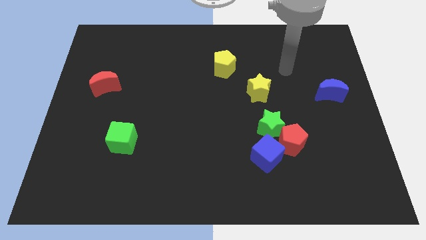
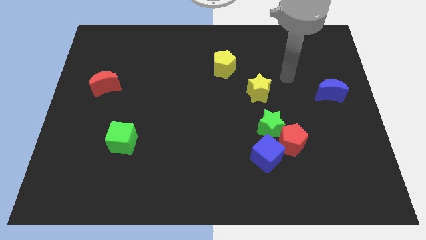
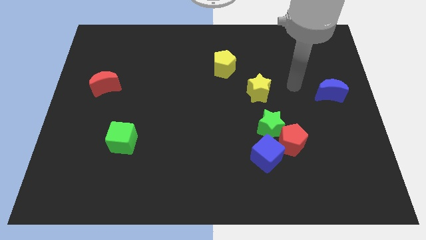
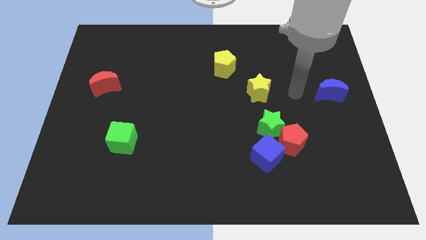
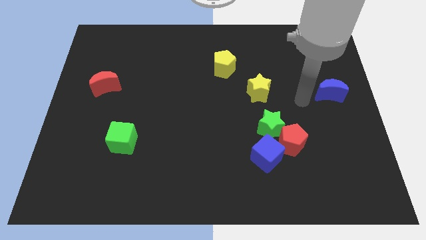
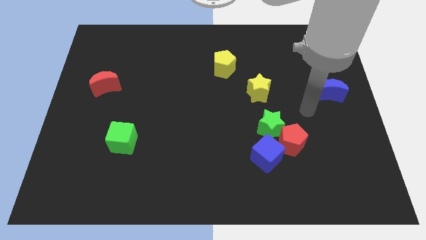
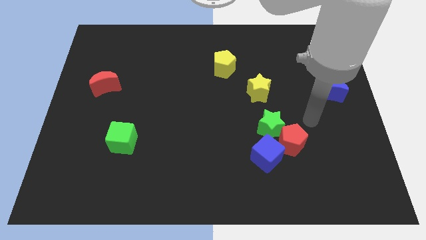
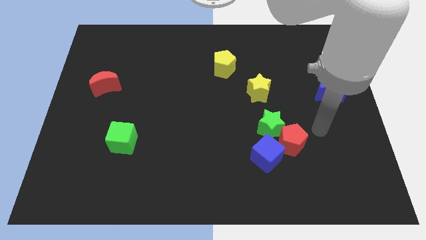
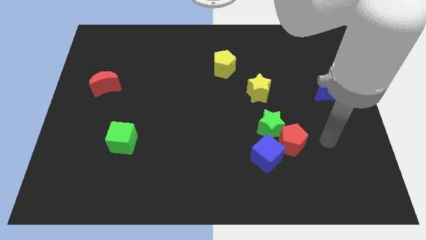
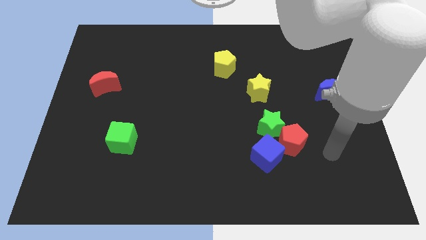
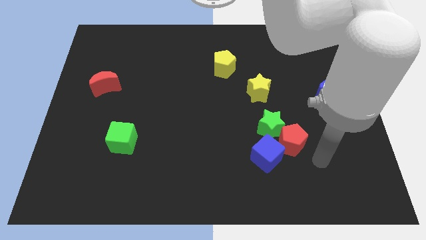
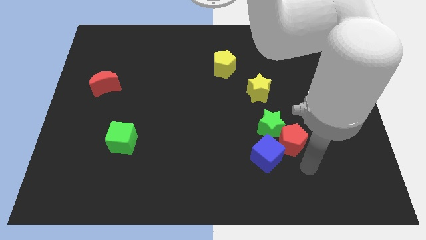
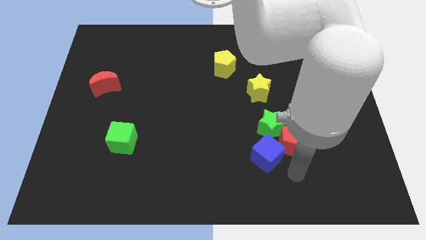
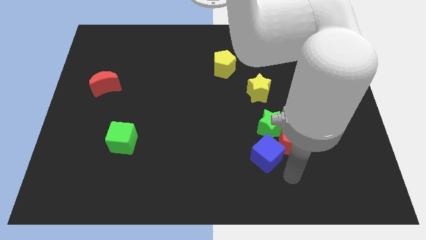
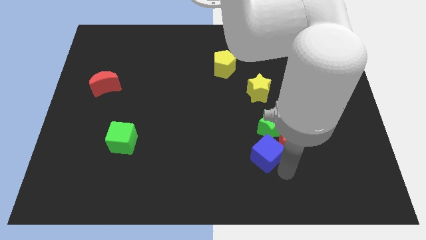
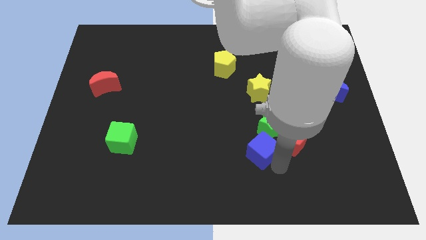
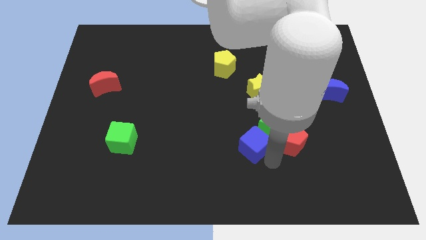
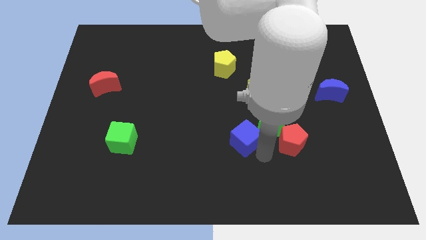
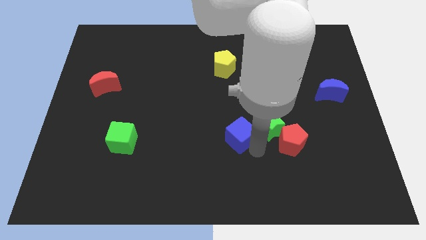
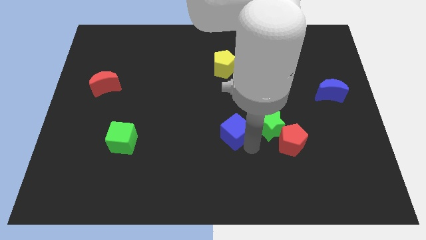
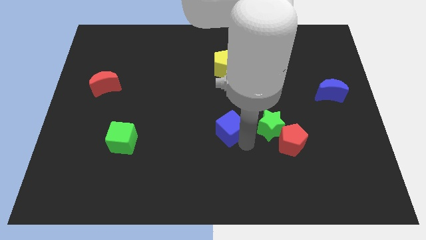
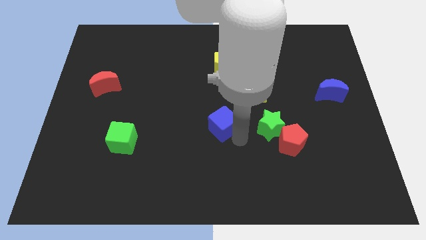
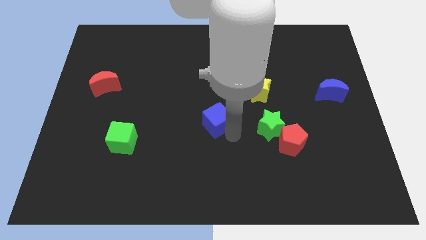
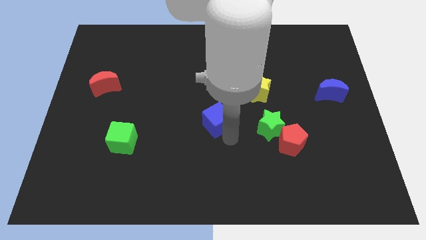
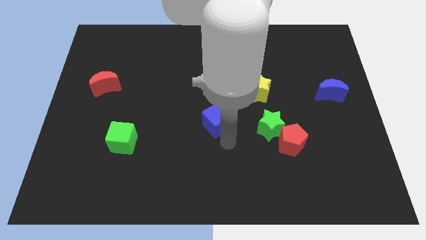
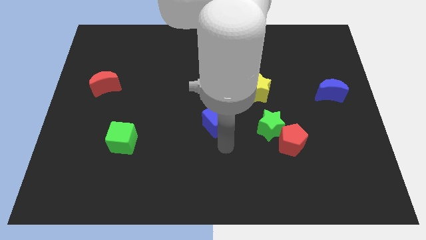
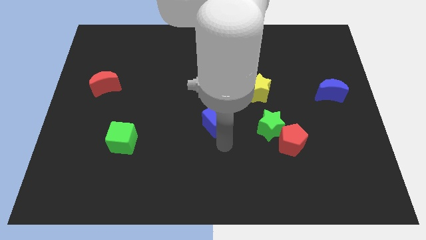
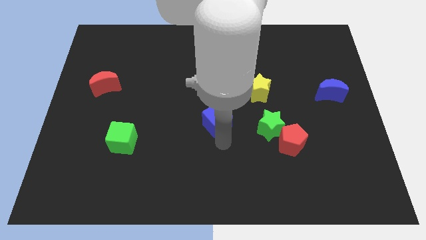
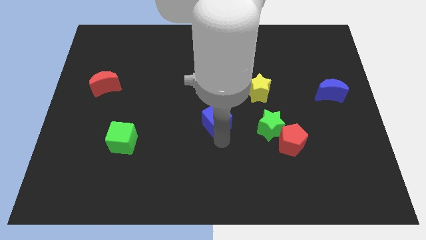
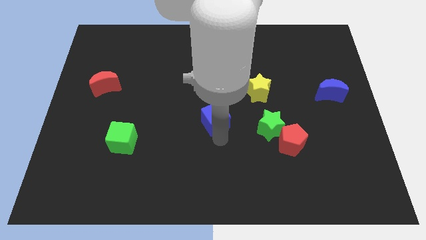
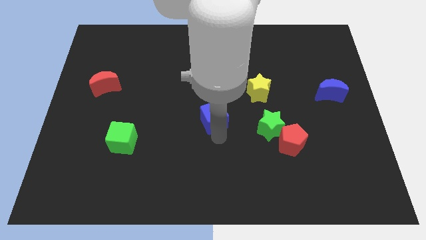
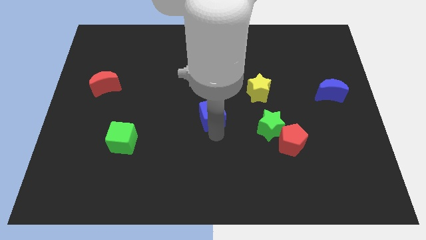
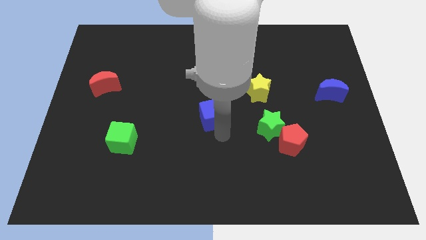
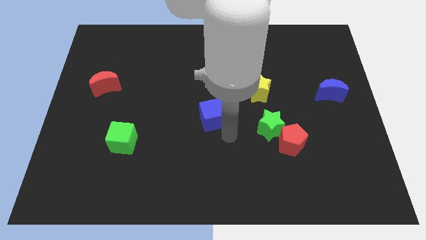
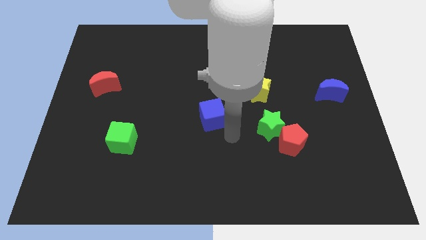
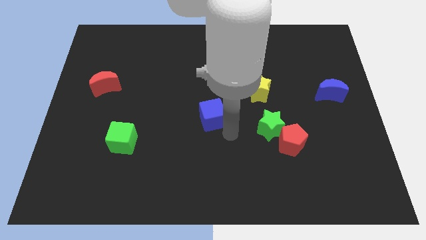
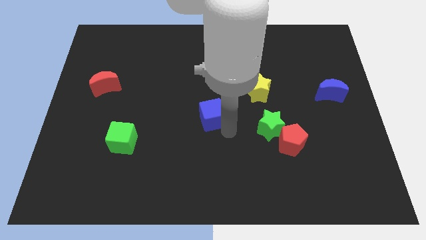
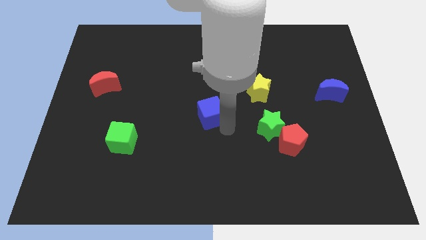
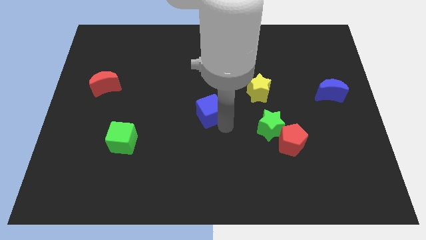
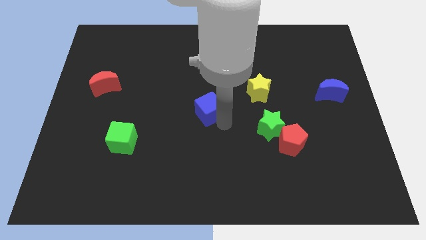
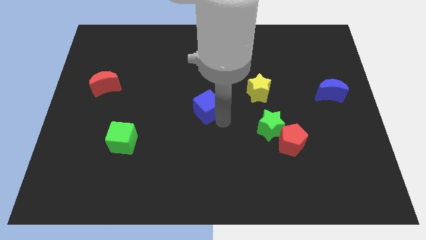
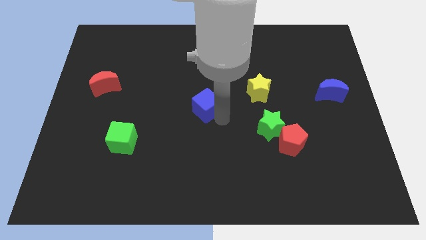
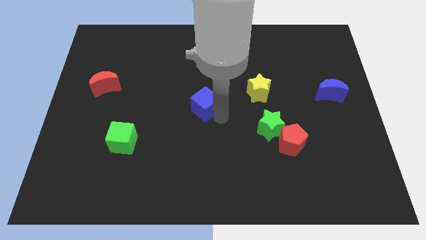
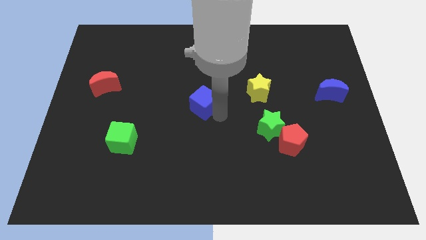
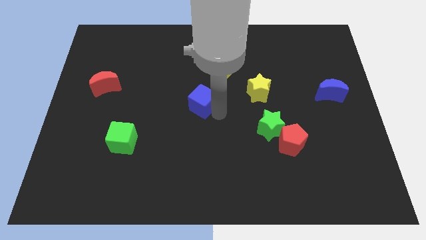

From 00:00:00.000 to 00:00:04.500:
push the blue cube up and to the left diagonally

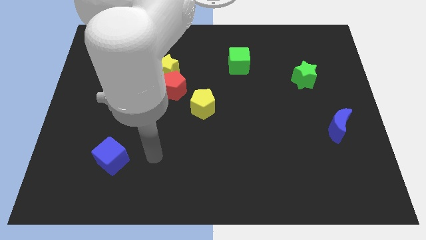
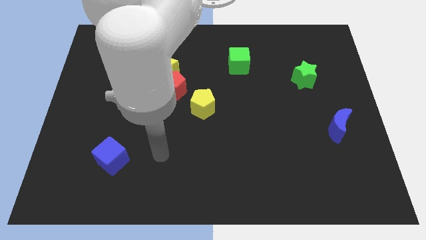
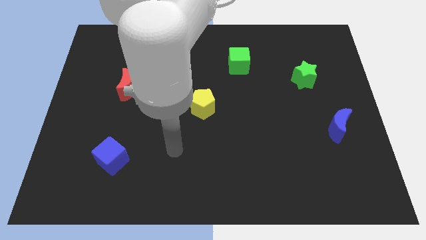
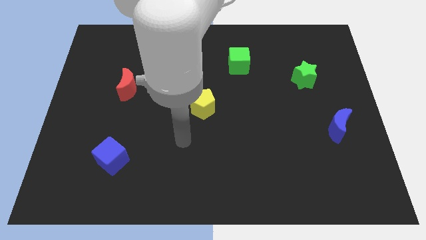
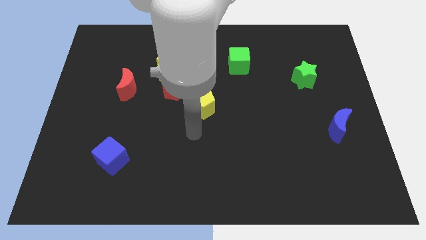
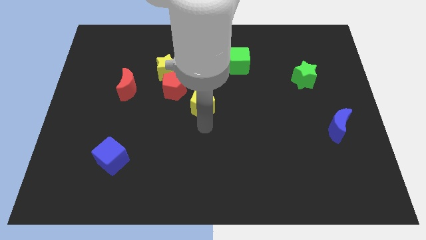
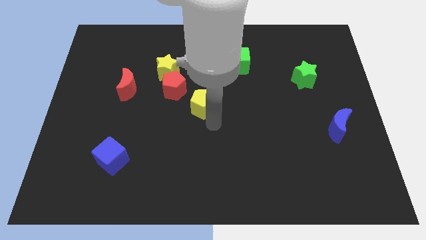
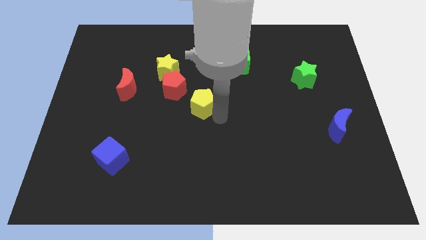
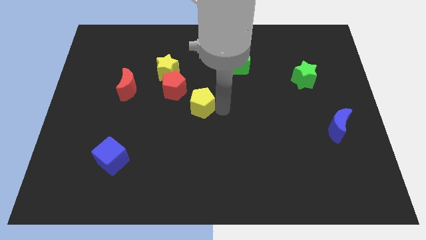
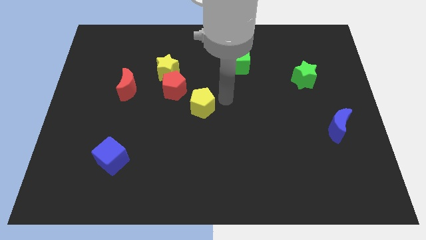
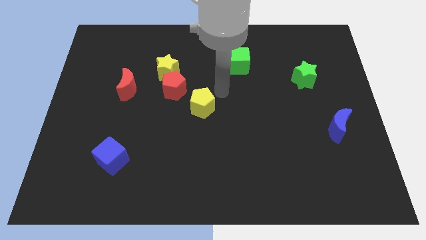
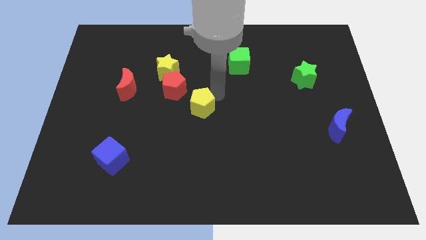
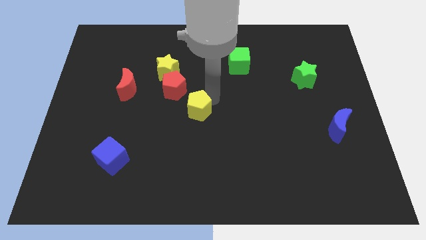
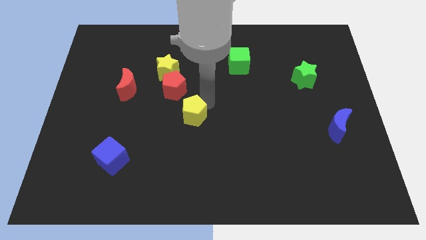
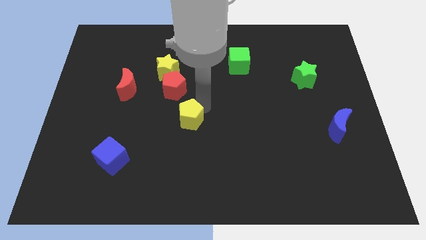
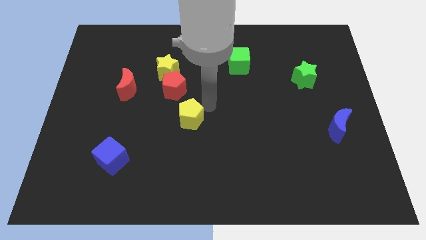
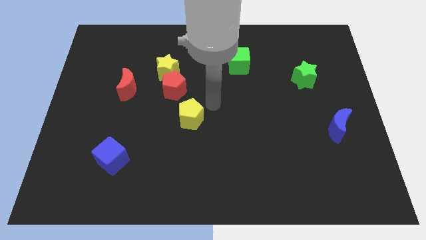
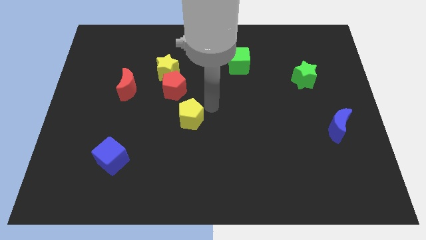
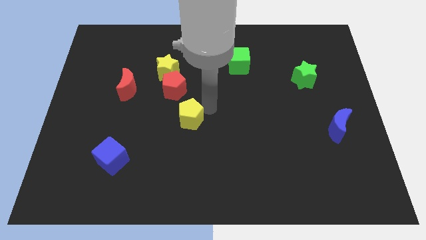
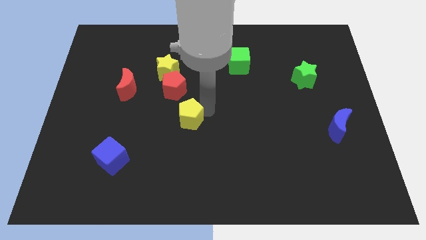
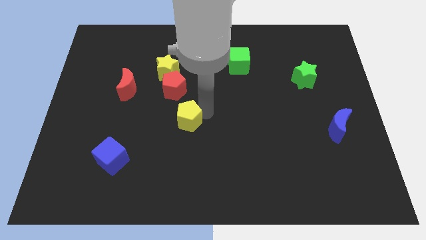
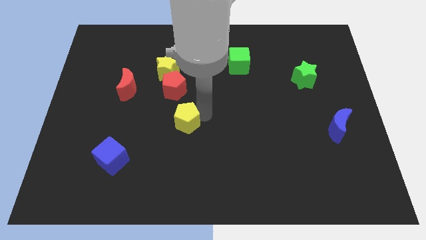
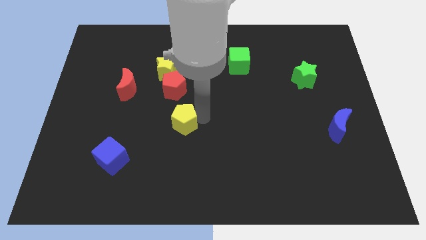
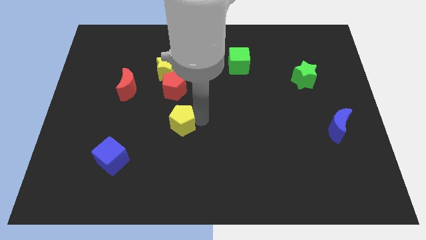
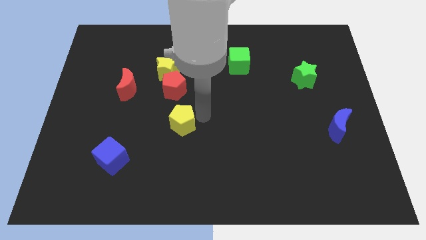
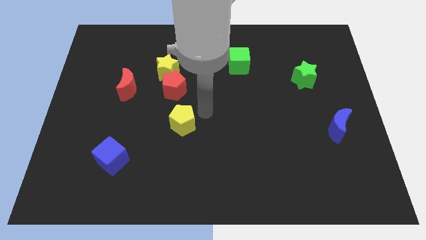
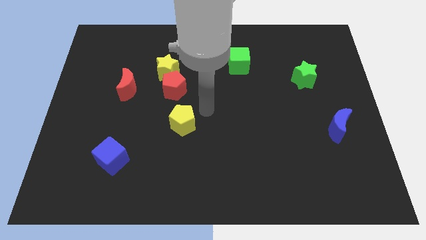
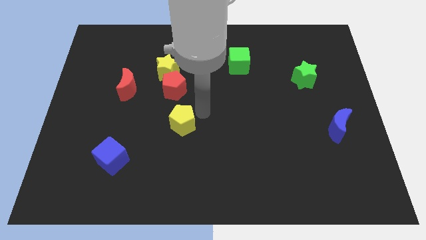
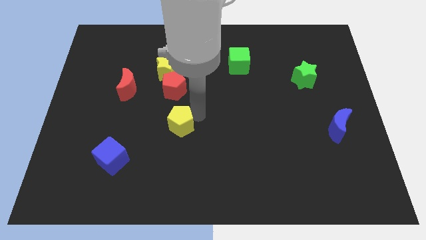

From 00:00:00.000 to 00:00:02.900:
push the yellow pentagon down and then left a bit

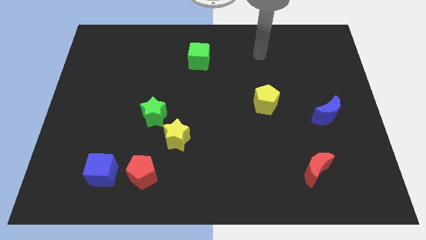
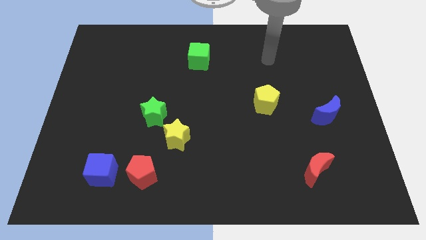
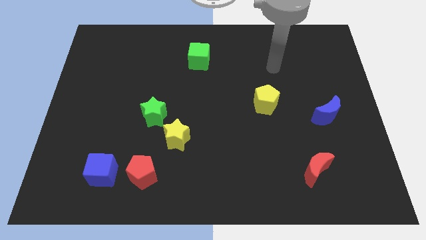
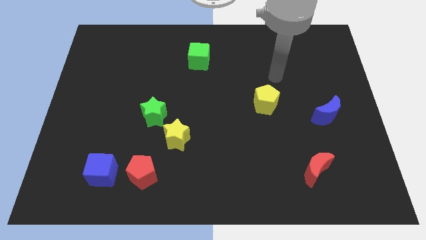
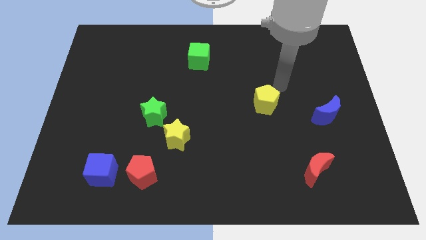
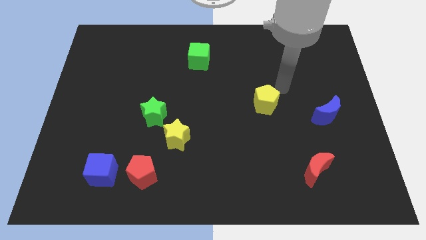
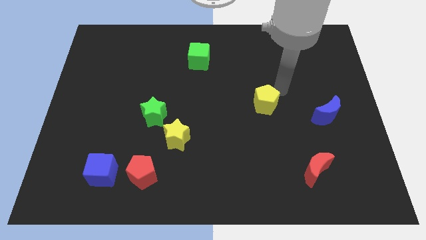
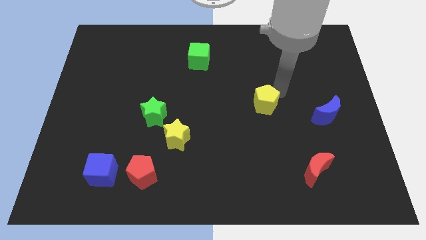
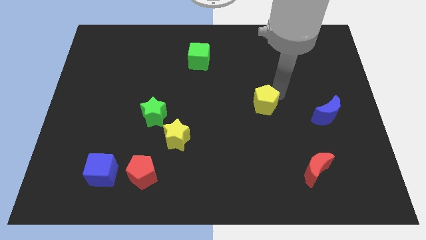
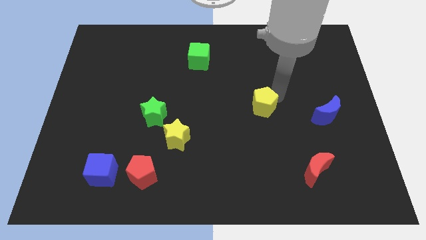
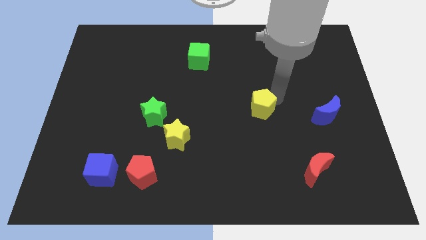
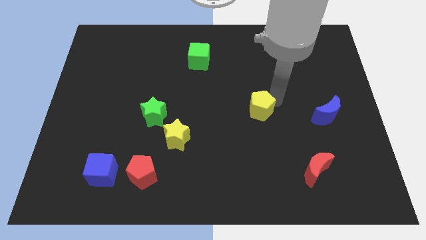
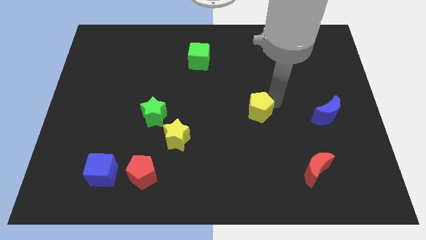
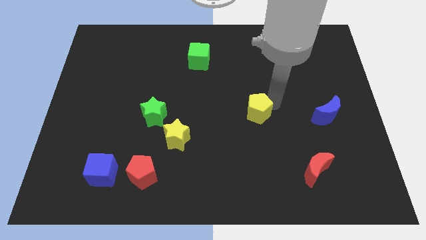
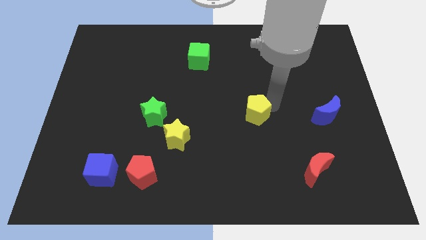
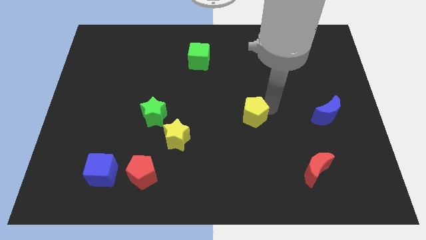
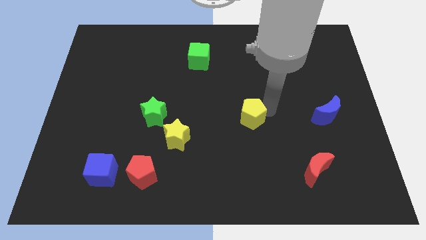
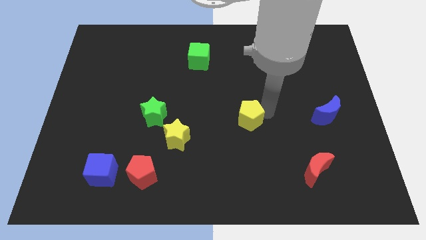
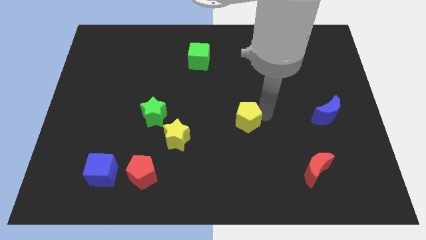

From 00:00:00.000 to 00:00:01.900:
slightly move the yellow pentagon downwards and then to the left
